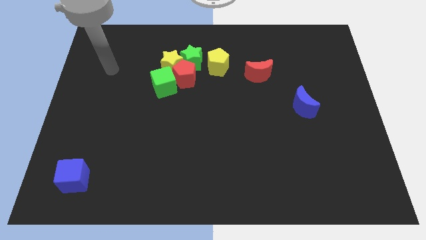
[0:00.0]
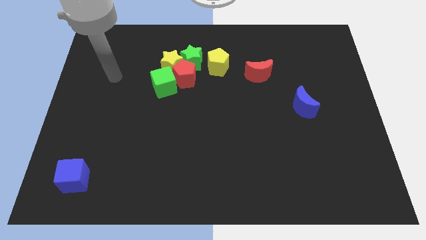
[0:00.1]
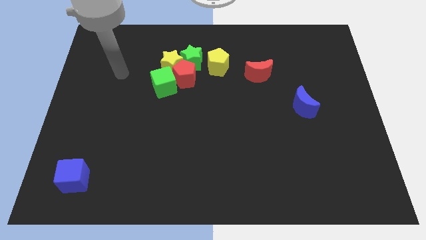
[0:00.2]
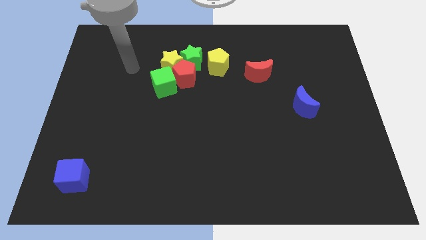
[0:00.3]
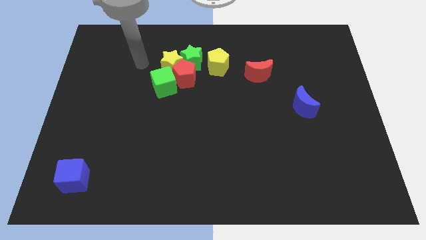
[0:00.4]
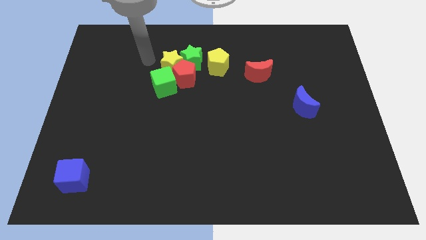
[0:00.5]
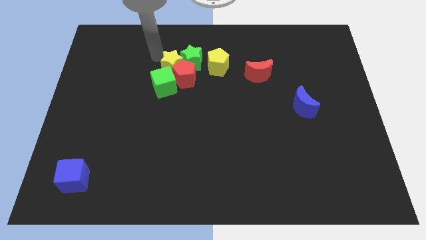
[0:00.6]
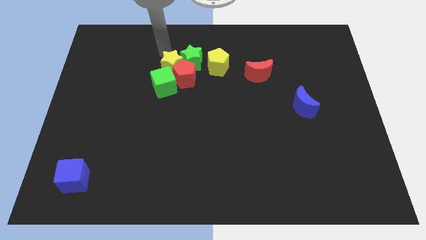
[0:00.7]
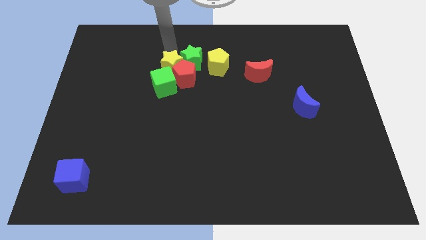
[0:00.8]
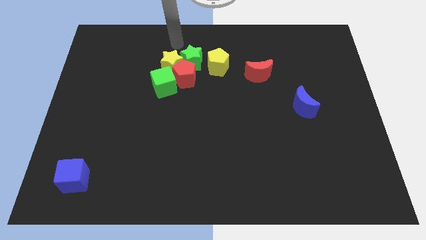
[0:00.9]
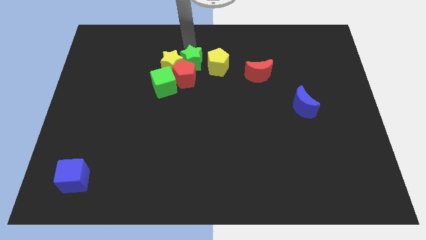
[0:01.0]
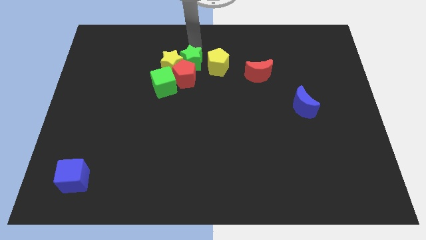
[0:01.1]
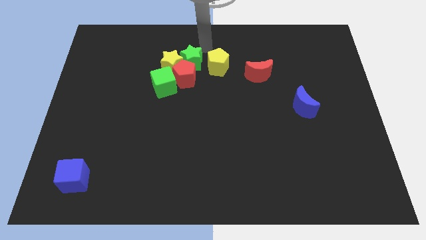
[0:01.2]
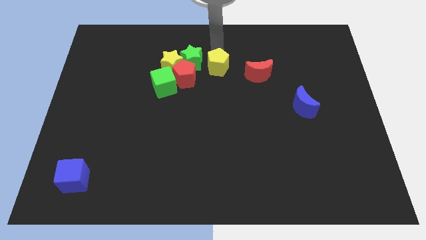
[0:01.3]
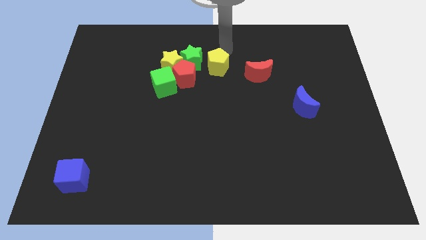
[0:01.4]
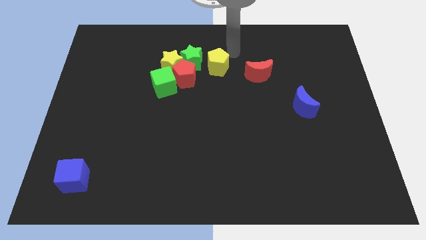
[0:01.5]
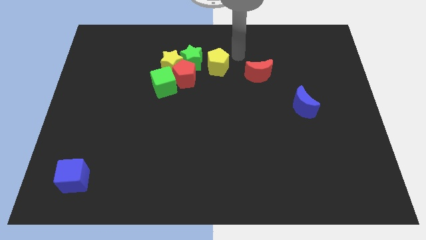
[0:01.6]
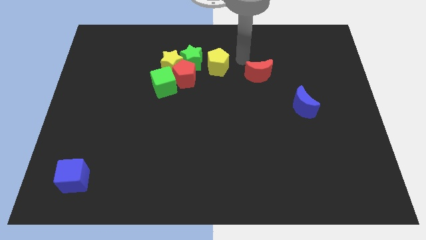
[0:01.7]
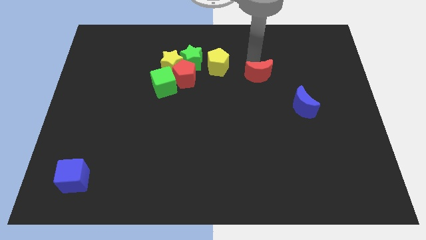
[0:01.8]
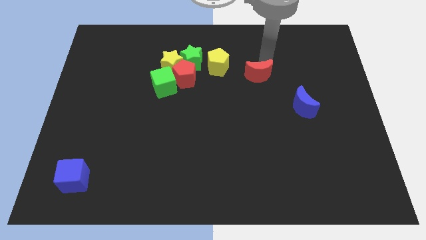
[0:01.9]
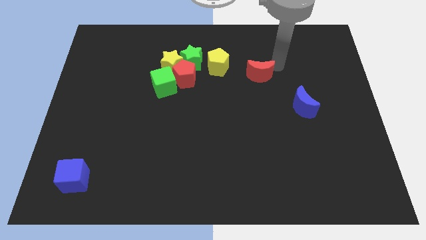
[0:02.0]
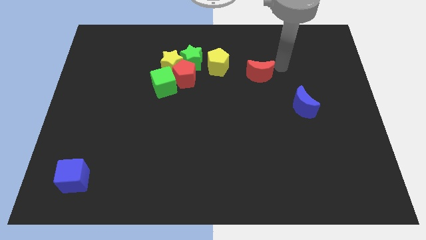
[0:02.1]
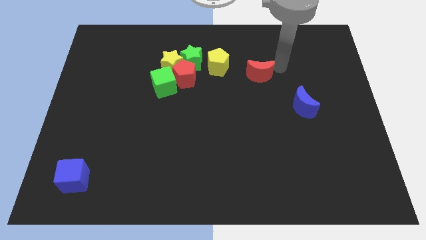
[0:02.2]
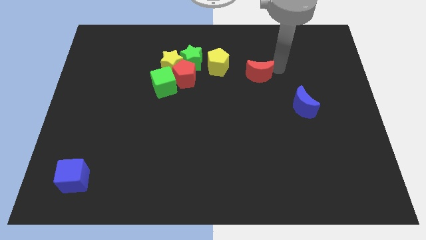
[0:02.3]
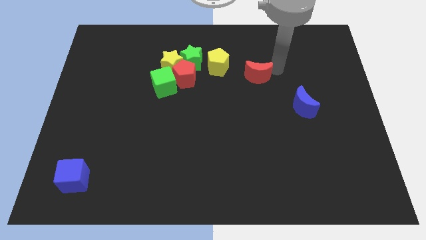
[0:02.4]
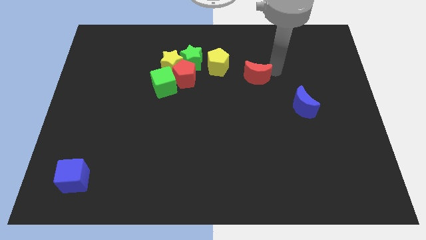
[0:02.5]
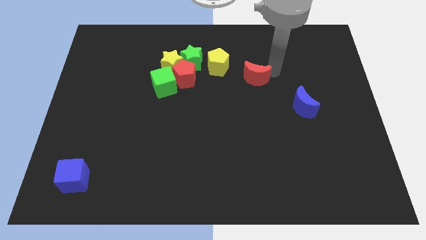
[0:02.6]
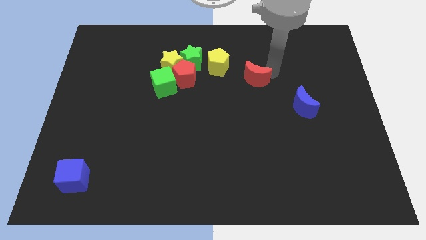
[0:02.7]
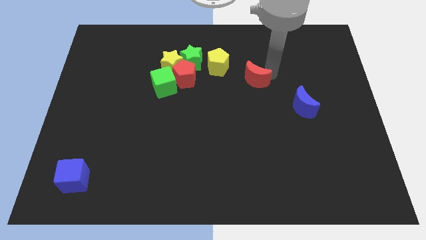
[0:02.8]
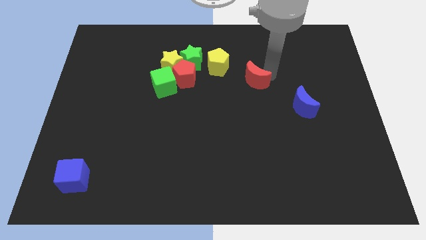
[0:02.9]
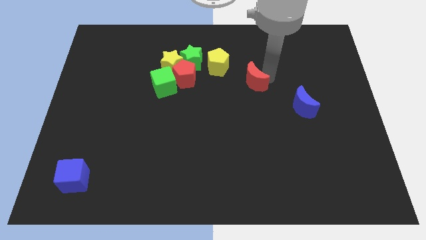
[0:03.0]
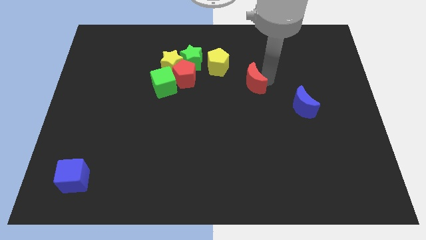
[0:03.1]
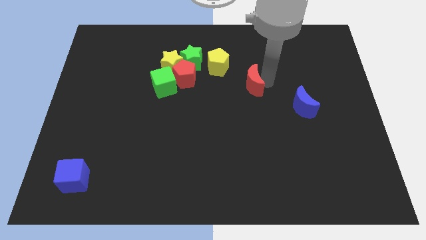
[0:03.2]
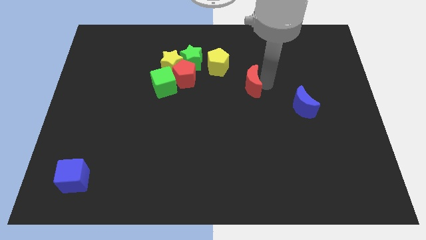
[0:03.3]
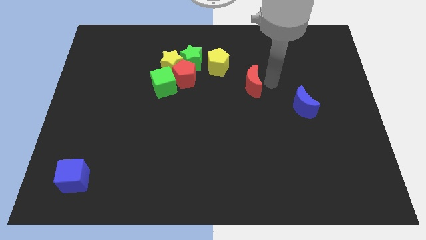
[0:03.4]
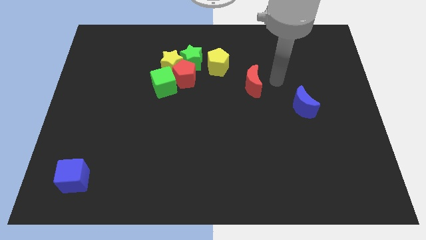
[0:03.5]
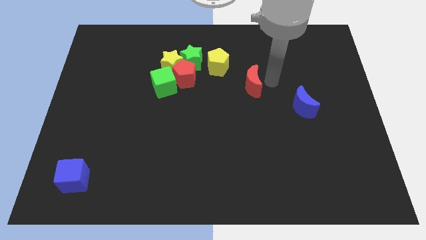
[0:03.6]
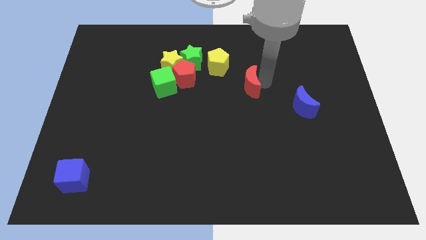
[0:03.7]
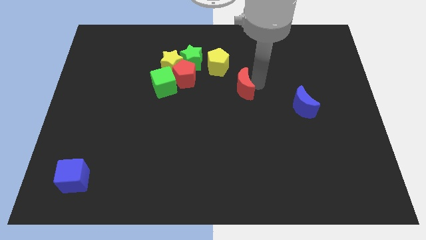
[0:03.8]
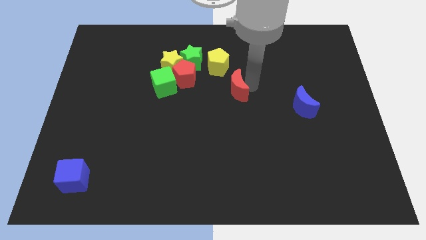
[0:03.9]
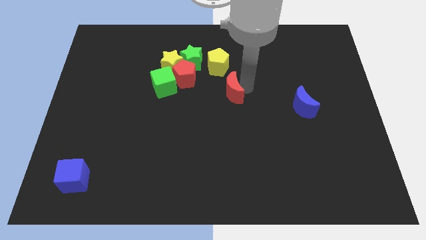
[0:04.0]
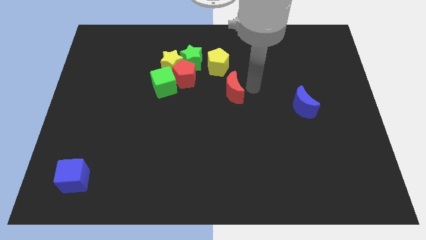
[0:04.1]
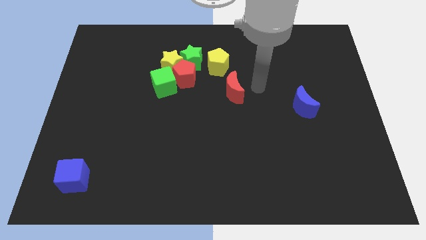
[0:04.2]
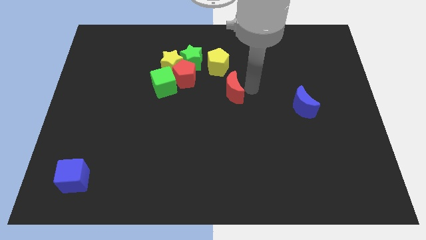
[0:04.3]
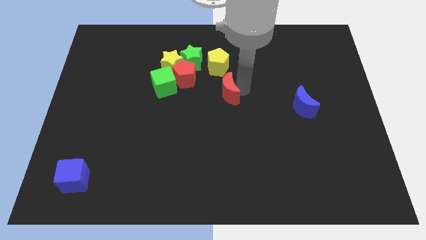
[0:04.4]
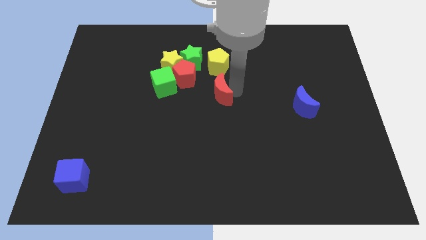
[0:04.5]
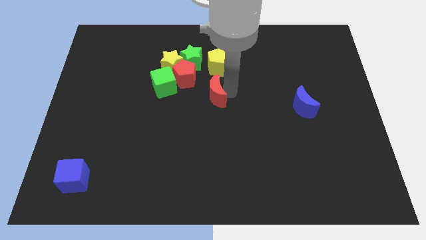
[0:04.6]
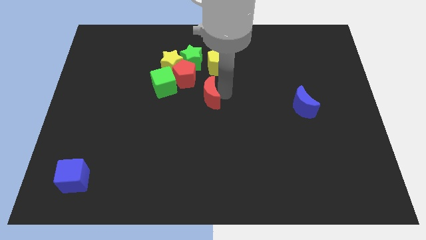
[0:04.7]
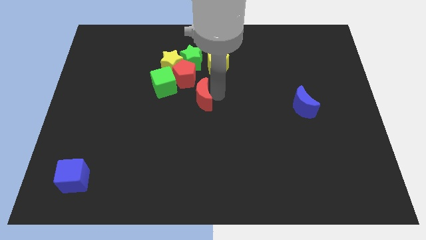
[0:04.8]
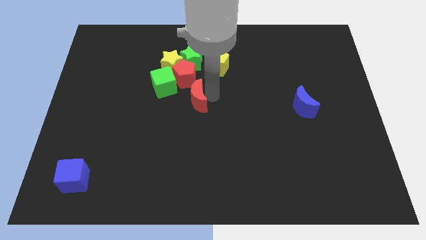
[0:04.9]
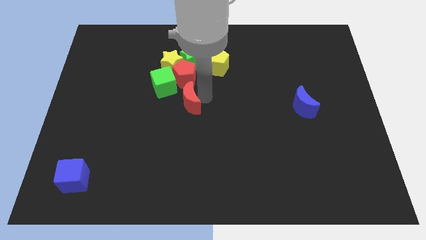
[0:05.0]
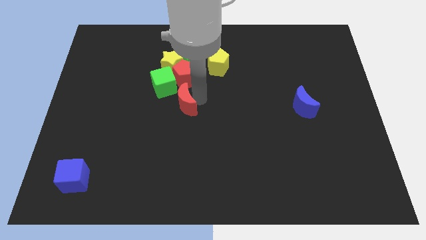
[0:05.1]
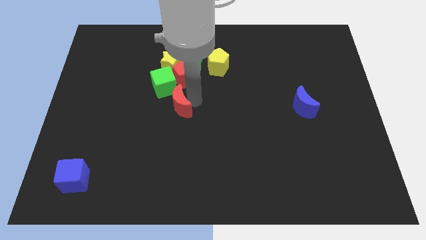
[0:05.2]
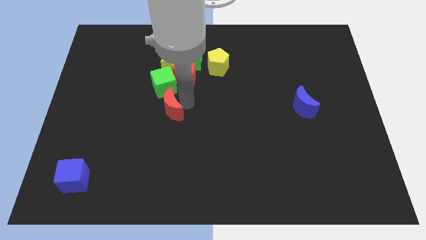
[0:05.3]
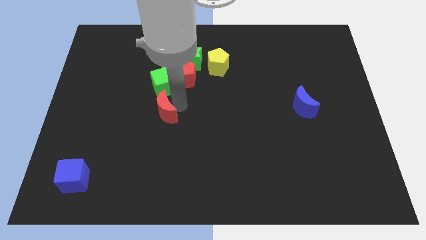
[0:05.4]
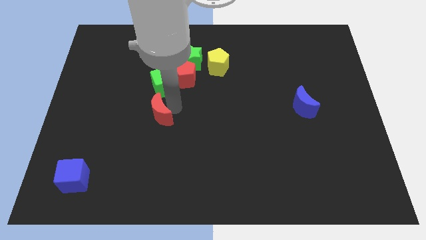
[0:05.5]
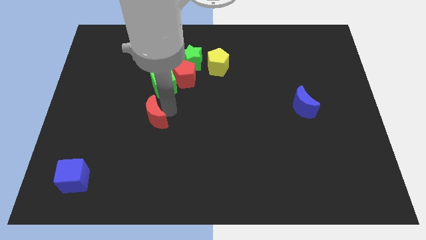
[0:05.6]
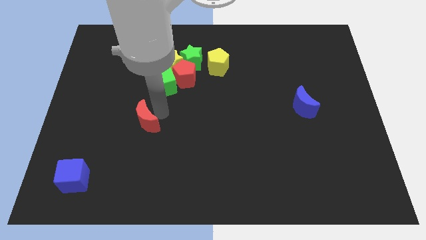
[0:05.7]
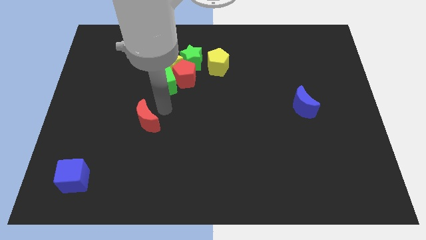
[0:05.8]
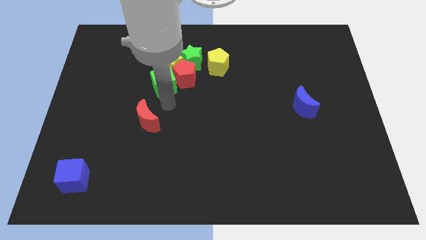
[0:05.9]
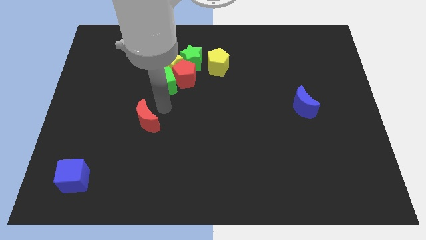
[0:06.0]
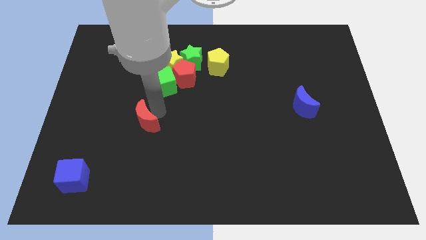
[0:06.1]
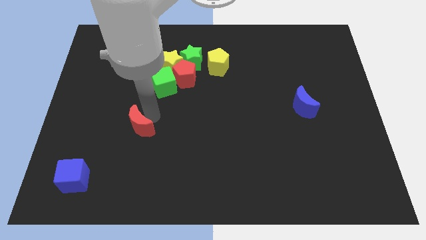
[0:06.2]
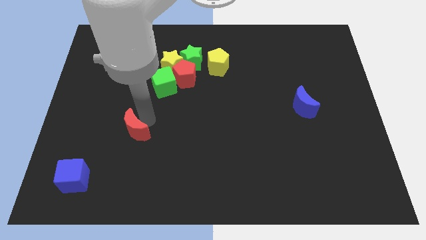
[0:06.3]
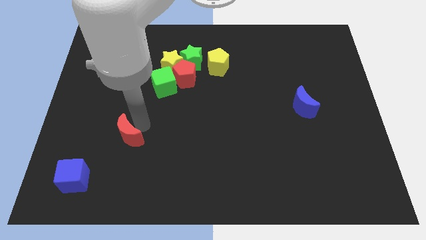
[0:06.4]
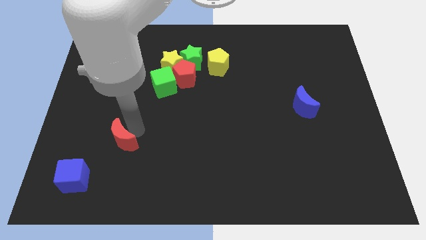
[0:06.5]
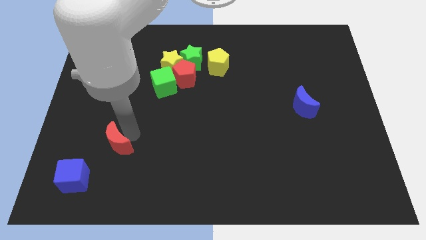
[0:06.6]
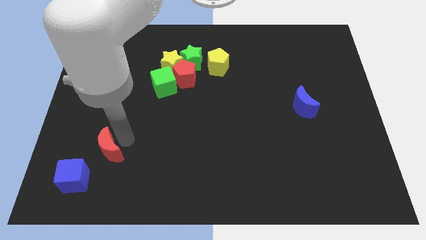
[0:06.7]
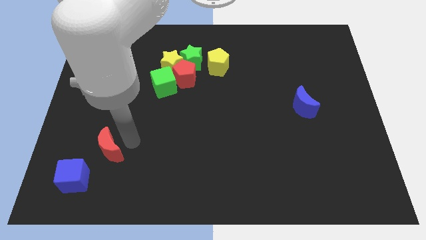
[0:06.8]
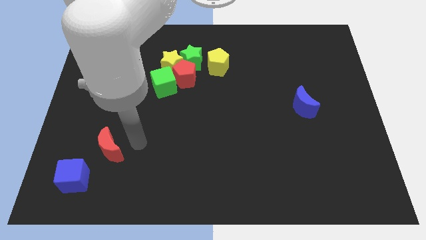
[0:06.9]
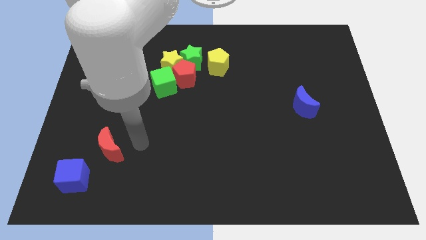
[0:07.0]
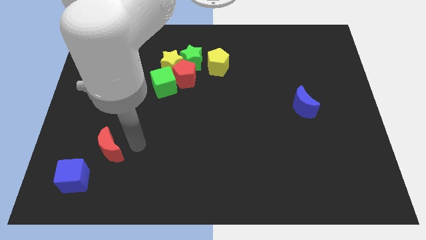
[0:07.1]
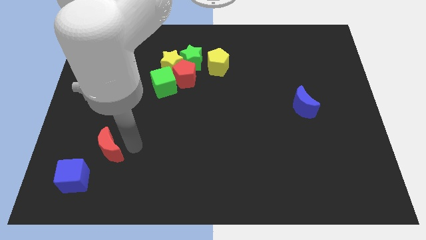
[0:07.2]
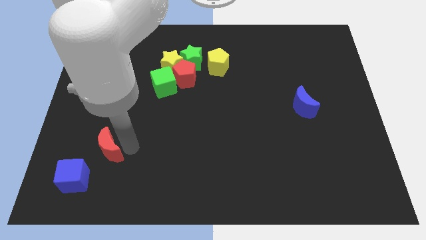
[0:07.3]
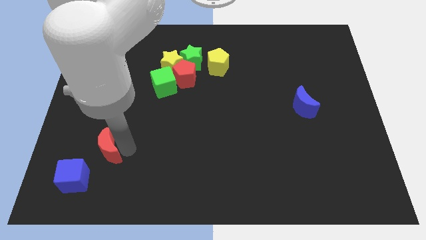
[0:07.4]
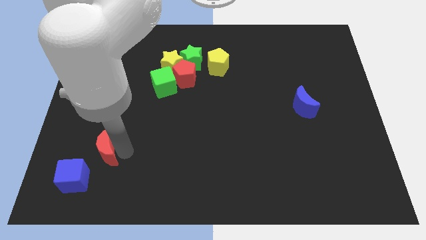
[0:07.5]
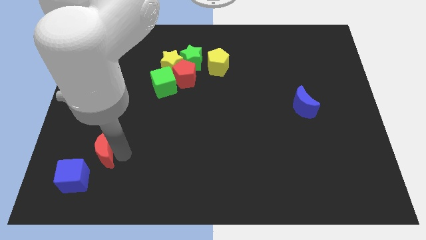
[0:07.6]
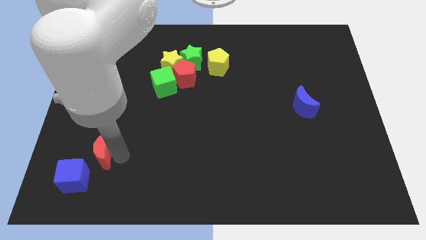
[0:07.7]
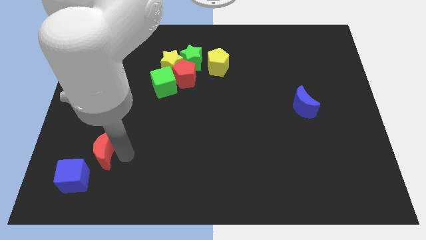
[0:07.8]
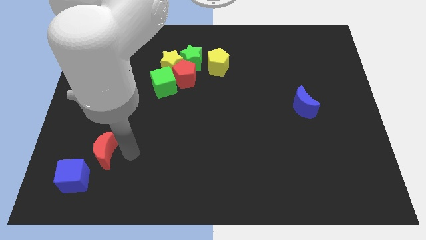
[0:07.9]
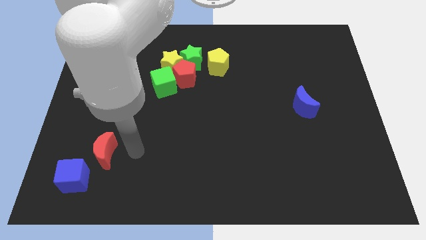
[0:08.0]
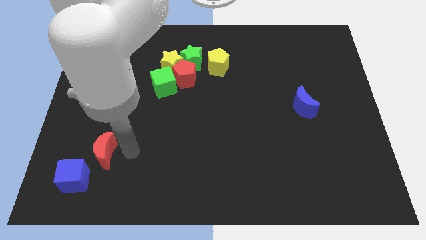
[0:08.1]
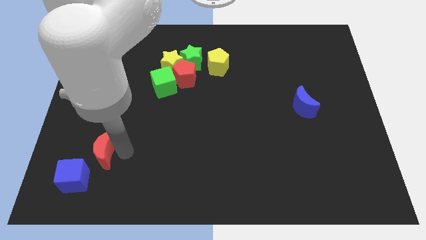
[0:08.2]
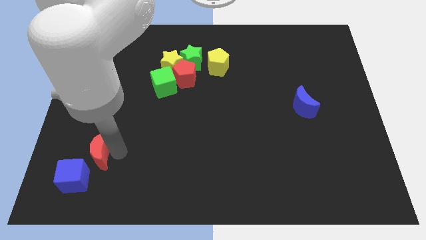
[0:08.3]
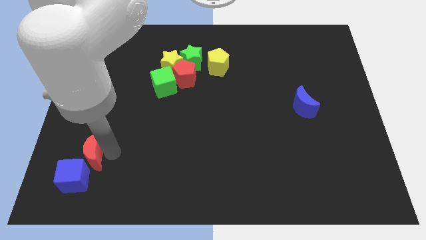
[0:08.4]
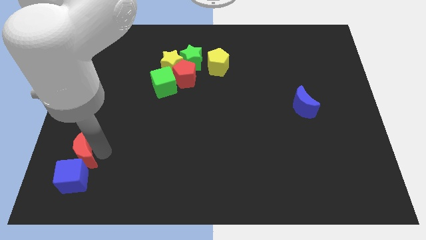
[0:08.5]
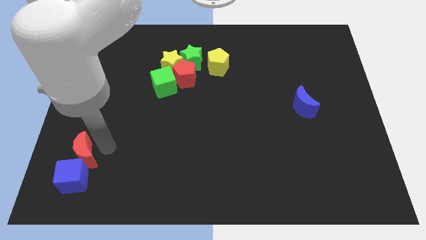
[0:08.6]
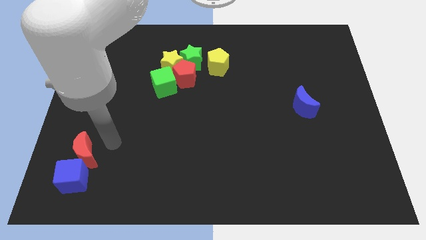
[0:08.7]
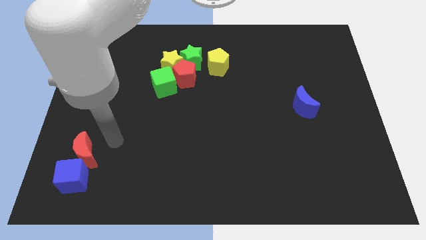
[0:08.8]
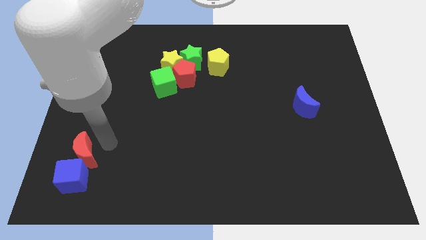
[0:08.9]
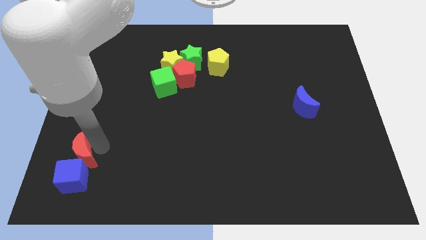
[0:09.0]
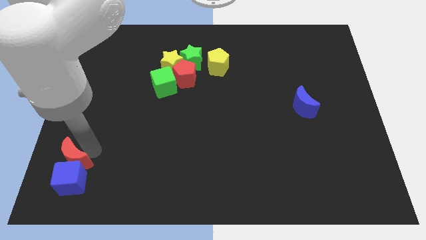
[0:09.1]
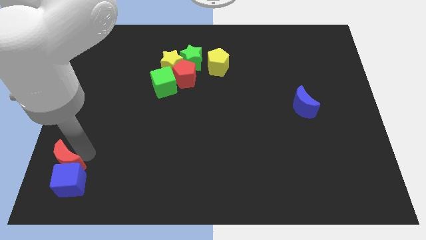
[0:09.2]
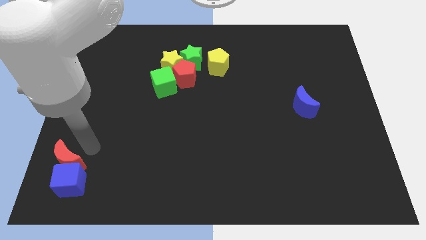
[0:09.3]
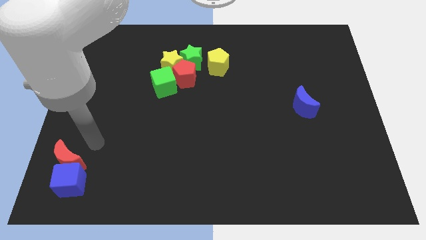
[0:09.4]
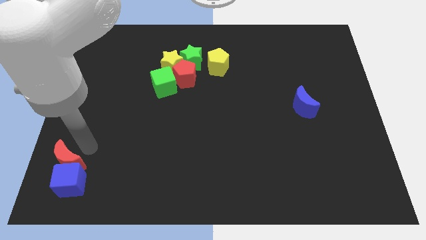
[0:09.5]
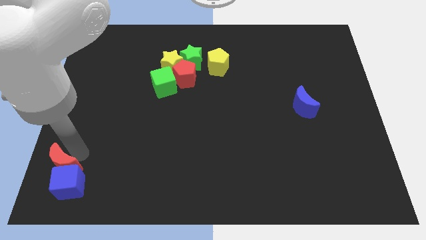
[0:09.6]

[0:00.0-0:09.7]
move the red moon to the bottom left corner
